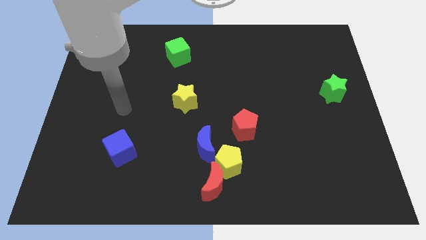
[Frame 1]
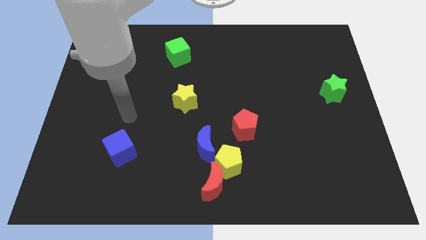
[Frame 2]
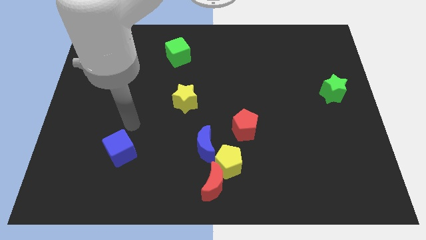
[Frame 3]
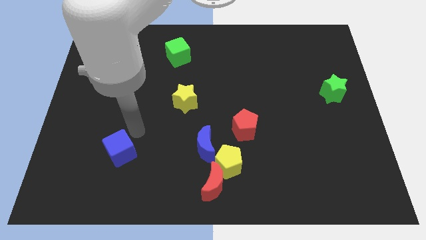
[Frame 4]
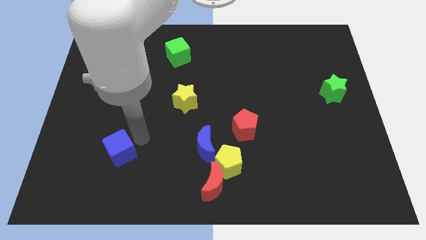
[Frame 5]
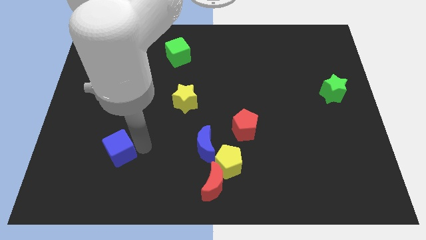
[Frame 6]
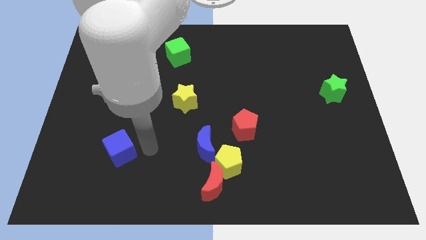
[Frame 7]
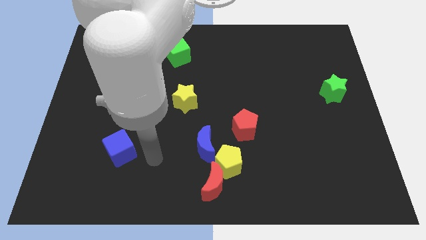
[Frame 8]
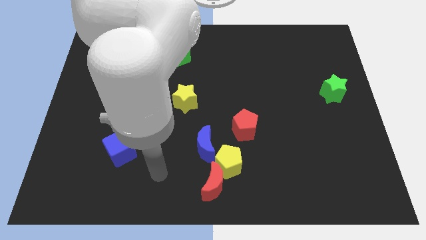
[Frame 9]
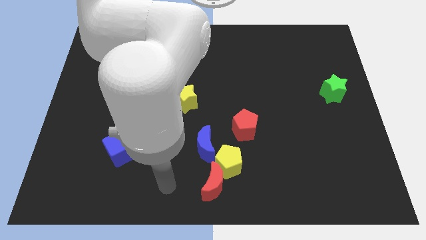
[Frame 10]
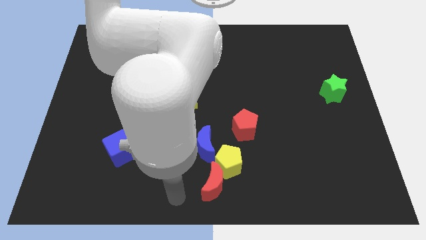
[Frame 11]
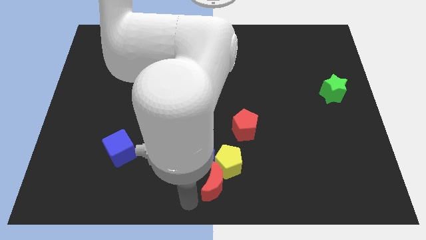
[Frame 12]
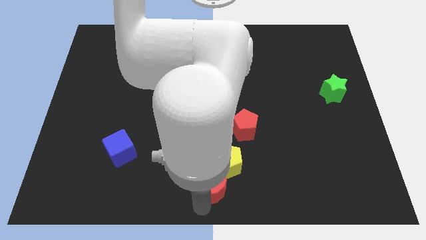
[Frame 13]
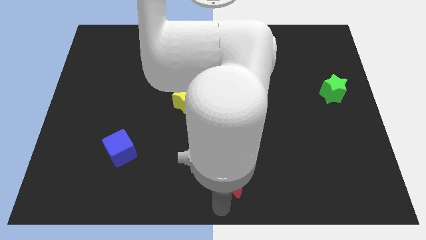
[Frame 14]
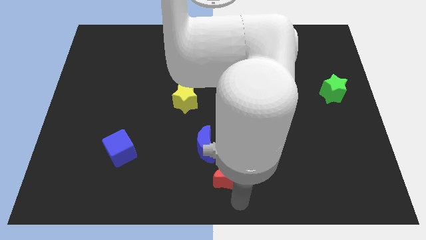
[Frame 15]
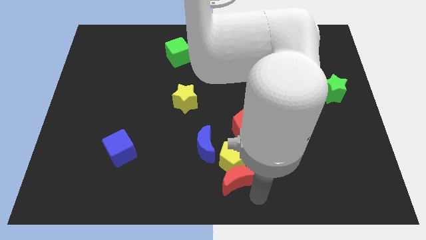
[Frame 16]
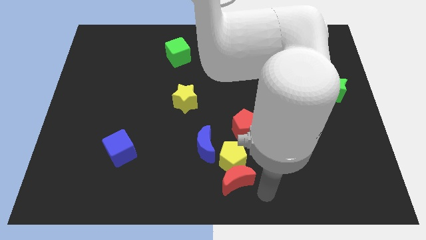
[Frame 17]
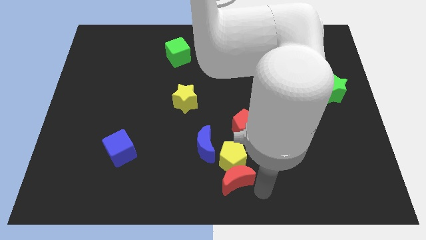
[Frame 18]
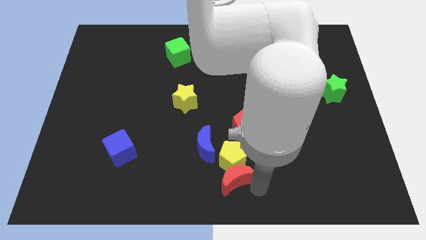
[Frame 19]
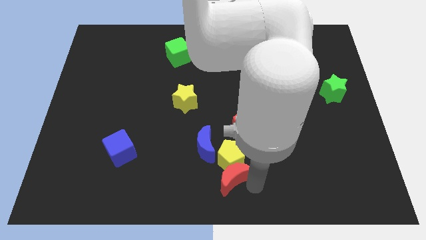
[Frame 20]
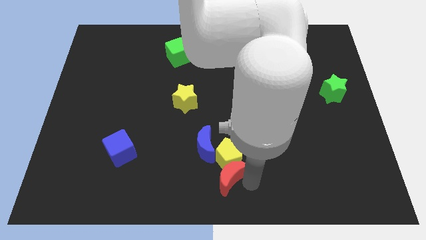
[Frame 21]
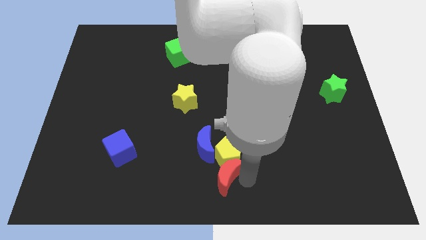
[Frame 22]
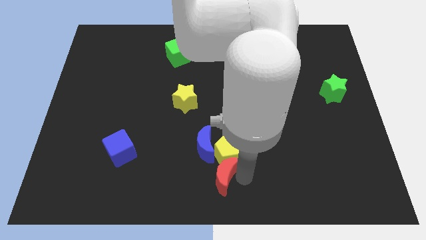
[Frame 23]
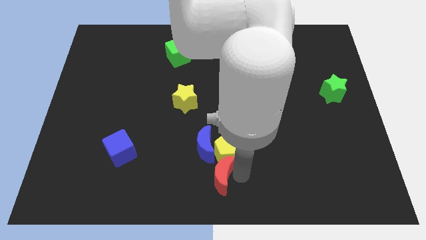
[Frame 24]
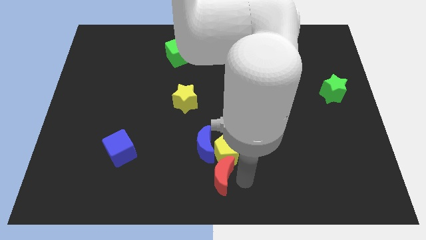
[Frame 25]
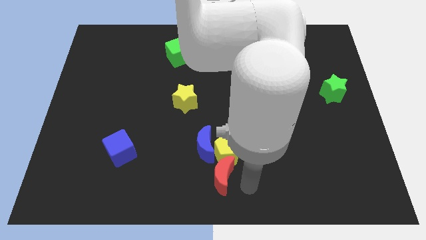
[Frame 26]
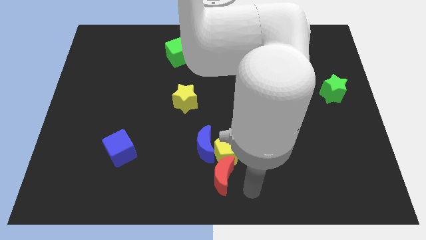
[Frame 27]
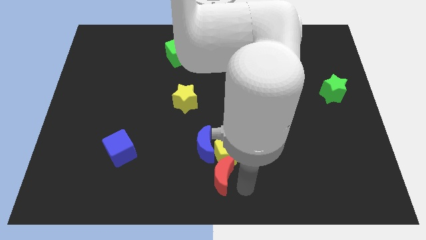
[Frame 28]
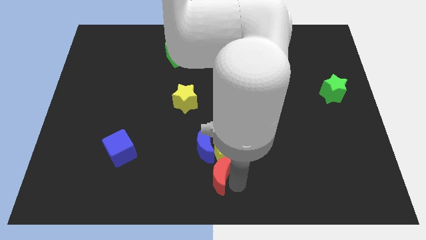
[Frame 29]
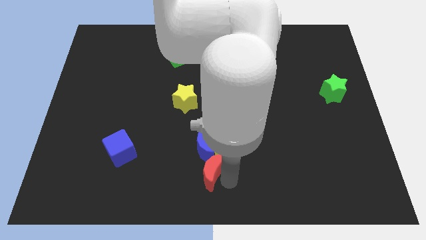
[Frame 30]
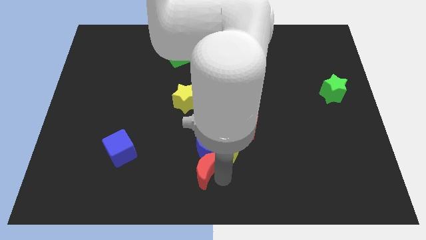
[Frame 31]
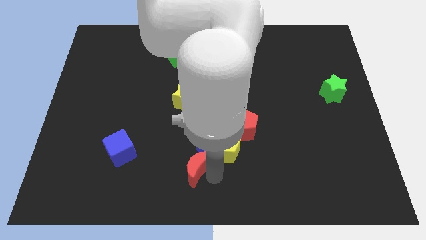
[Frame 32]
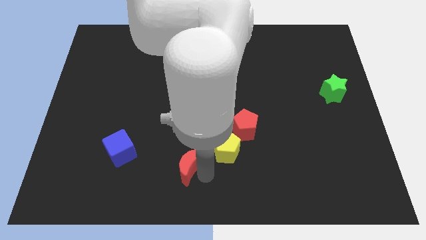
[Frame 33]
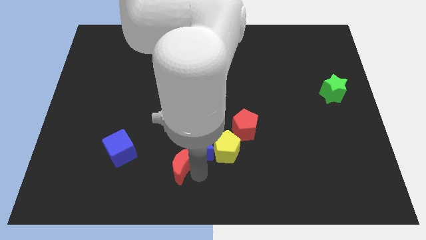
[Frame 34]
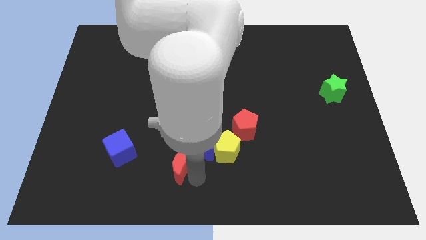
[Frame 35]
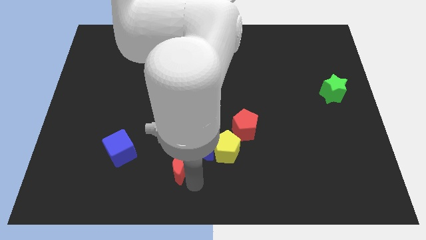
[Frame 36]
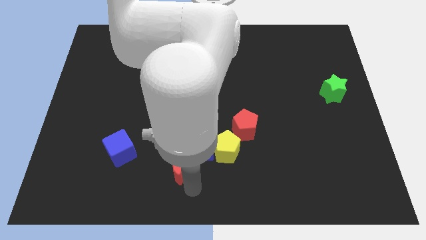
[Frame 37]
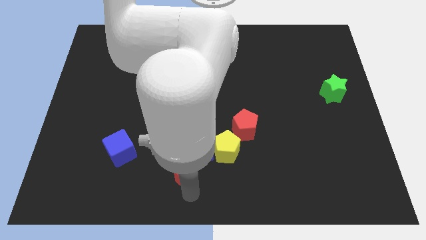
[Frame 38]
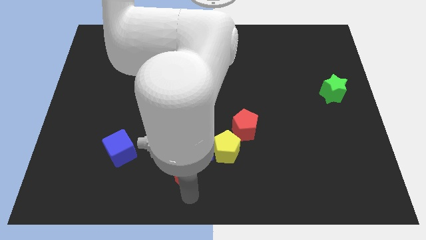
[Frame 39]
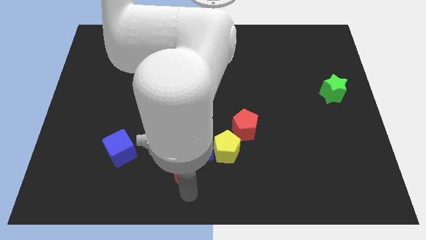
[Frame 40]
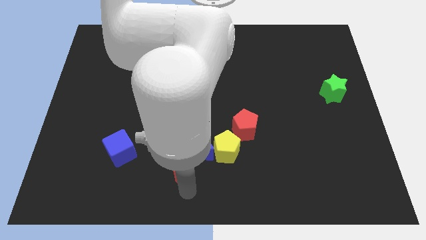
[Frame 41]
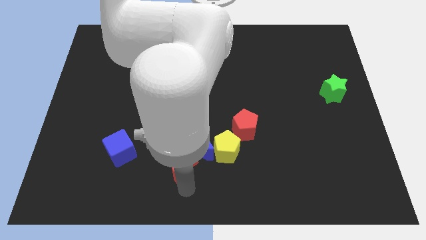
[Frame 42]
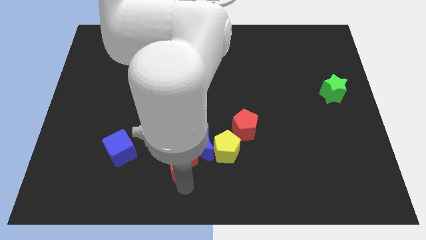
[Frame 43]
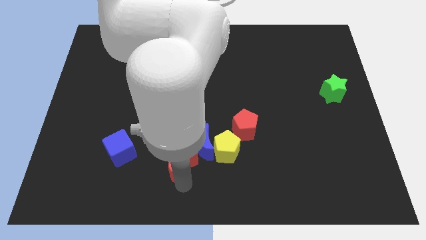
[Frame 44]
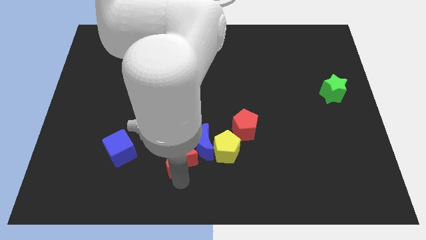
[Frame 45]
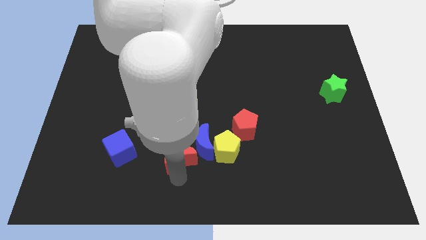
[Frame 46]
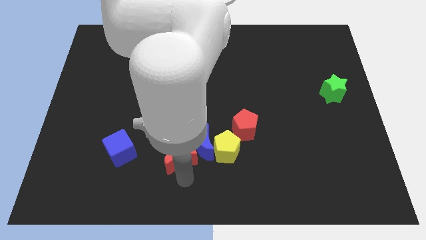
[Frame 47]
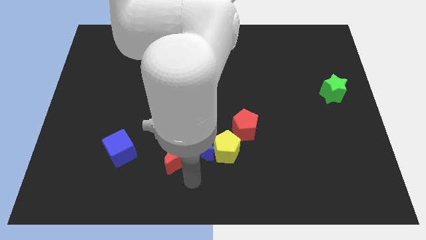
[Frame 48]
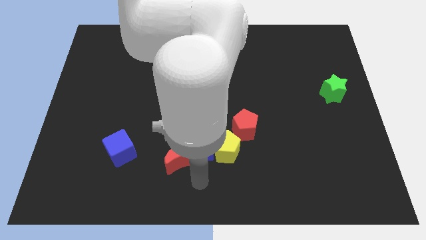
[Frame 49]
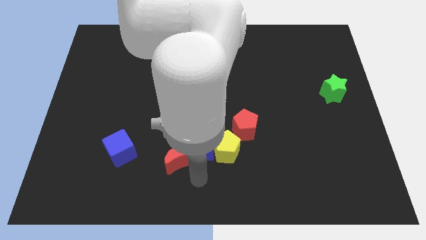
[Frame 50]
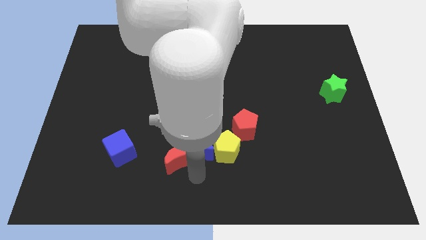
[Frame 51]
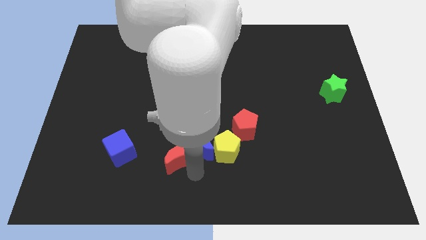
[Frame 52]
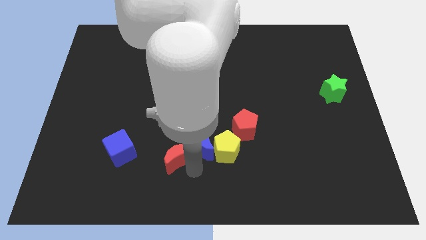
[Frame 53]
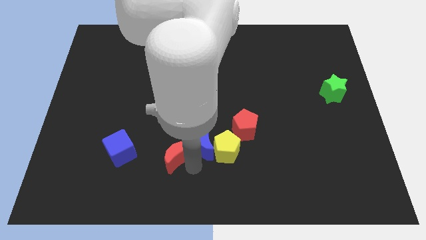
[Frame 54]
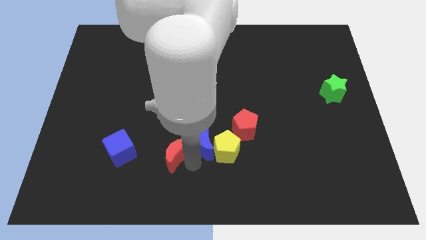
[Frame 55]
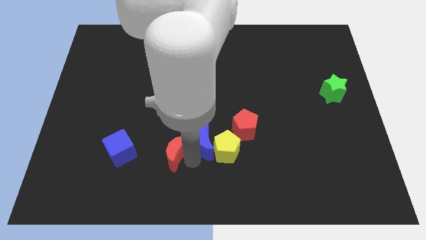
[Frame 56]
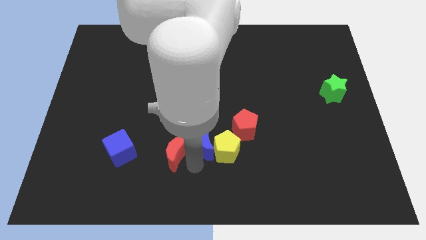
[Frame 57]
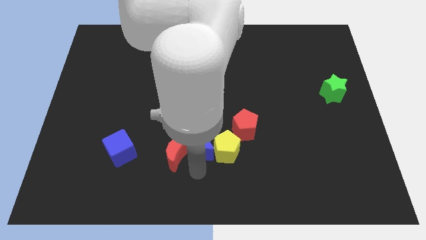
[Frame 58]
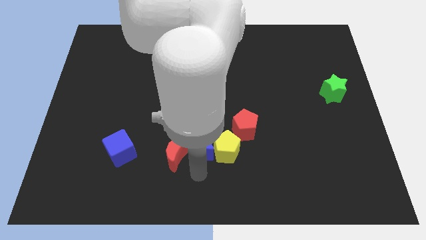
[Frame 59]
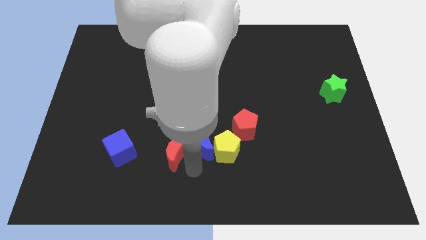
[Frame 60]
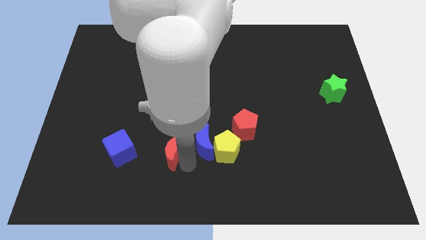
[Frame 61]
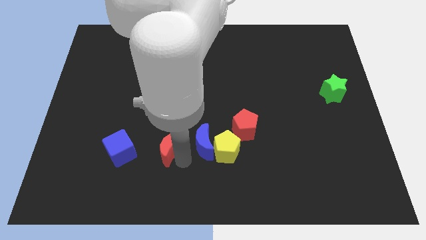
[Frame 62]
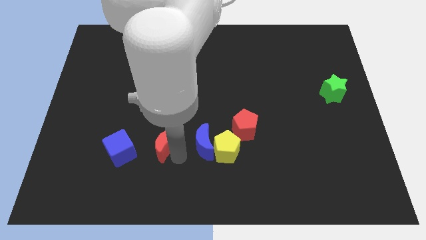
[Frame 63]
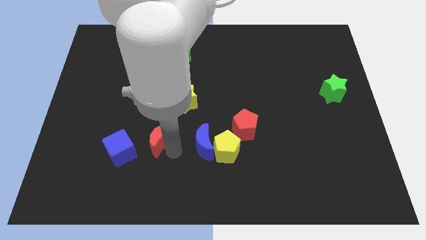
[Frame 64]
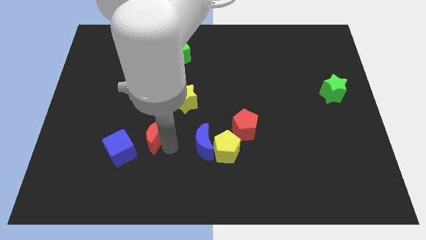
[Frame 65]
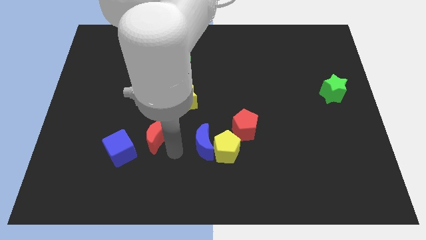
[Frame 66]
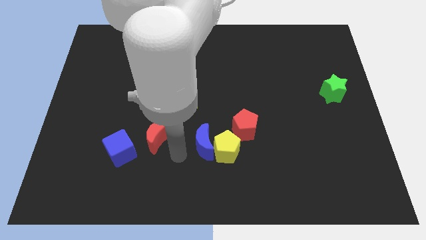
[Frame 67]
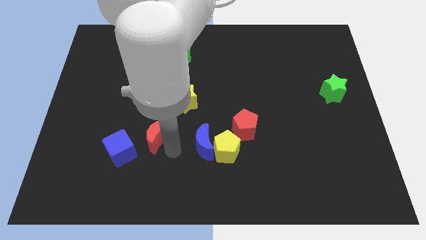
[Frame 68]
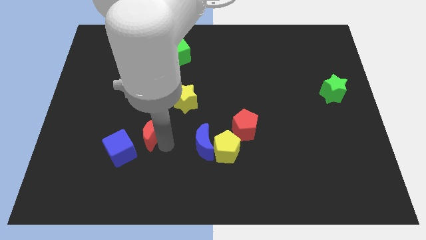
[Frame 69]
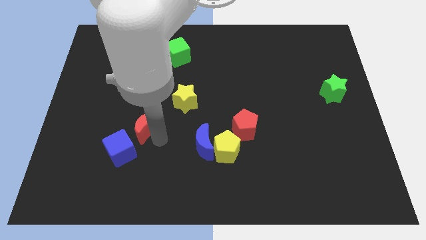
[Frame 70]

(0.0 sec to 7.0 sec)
move the red moon up and to the left

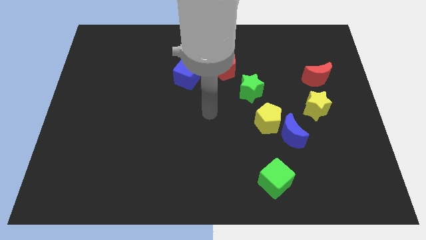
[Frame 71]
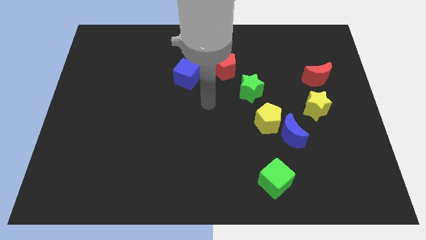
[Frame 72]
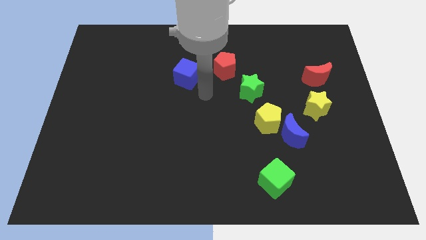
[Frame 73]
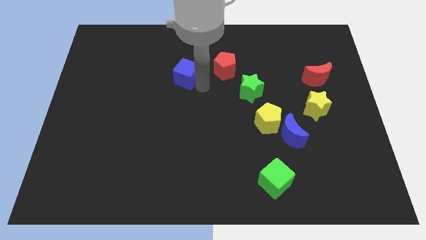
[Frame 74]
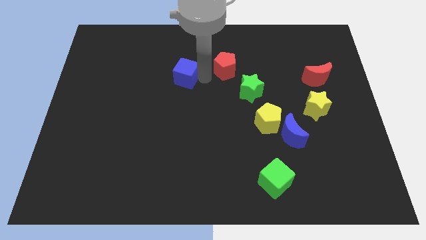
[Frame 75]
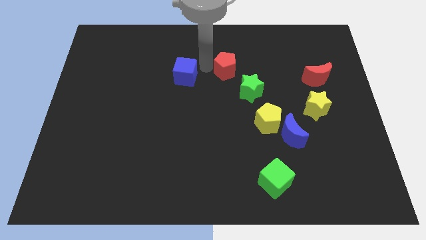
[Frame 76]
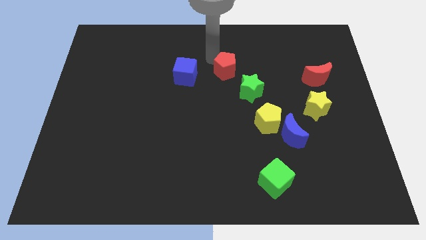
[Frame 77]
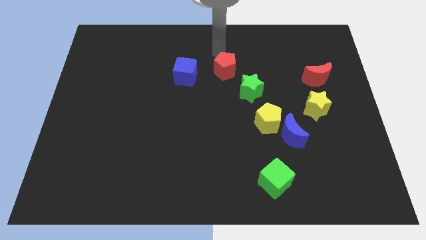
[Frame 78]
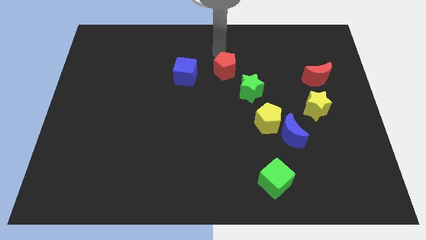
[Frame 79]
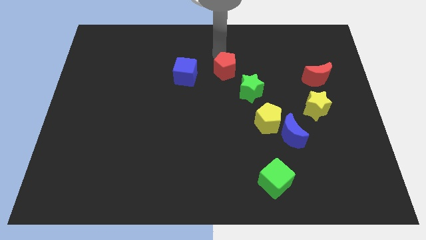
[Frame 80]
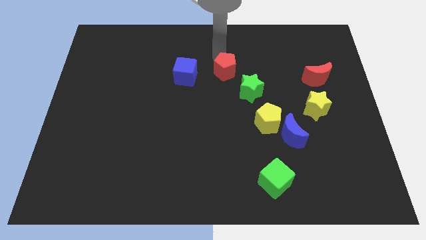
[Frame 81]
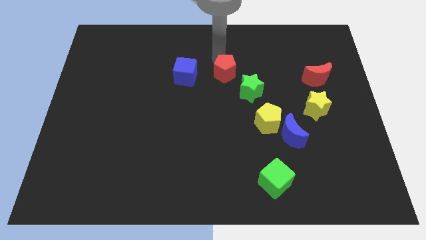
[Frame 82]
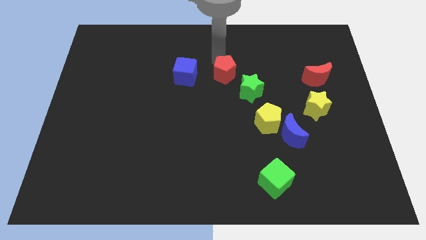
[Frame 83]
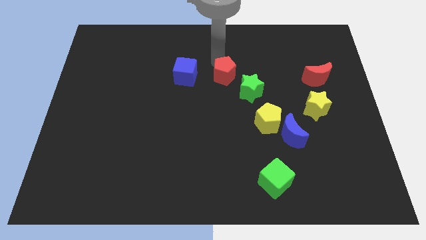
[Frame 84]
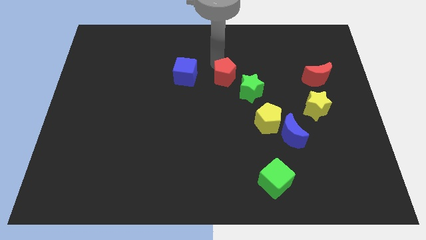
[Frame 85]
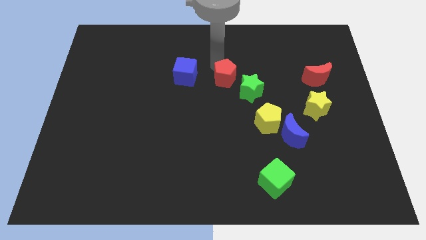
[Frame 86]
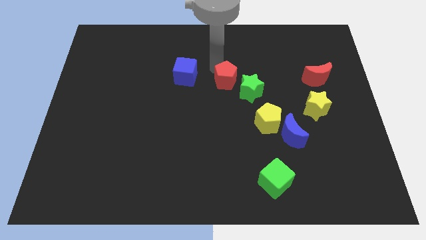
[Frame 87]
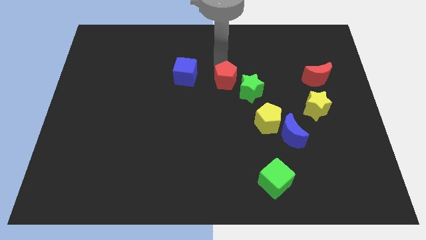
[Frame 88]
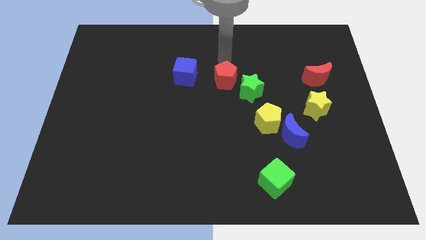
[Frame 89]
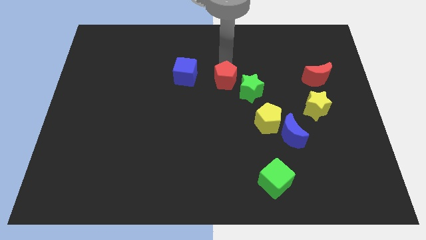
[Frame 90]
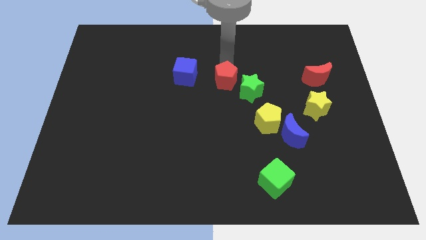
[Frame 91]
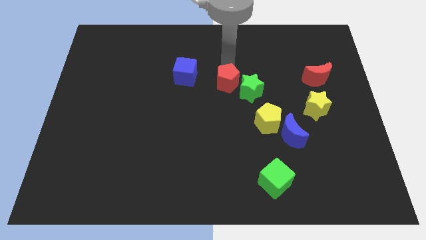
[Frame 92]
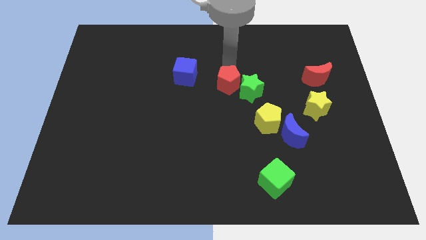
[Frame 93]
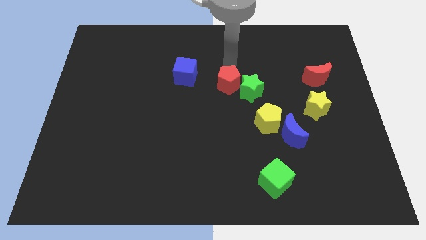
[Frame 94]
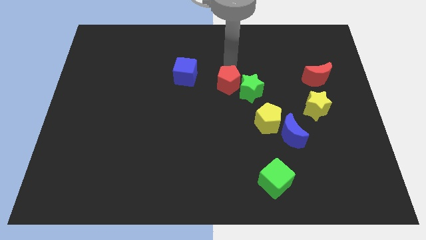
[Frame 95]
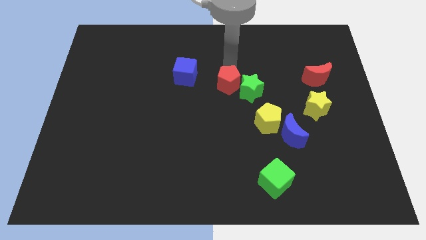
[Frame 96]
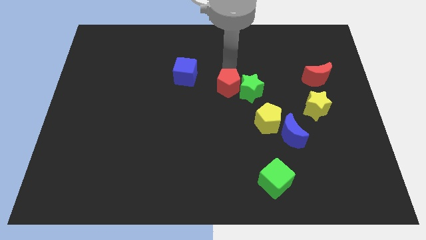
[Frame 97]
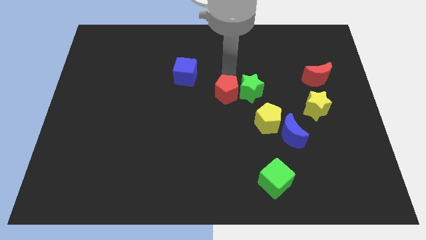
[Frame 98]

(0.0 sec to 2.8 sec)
slightly slide the red pentagon downwards
